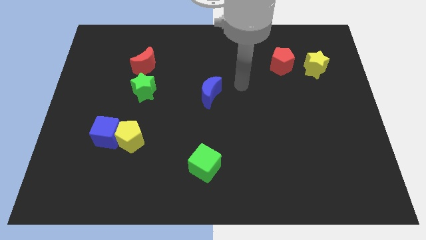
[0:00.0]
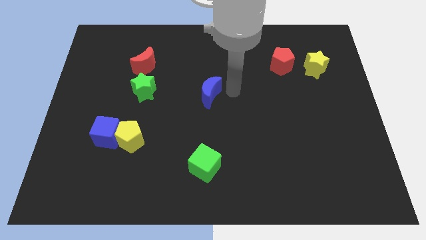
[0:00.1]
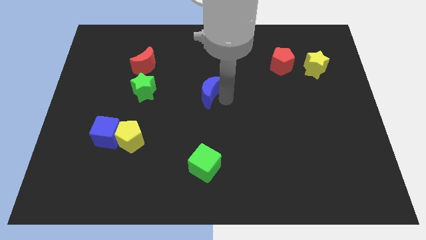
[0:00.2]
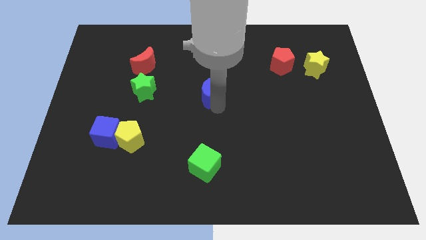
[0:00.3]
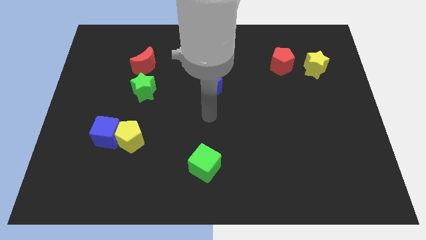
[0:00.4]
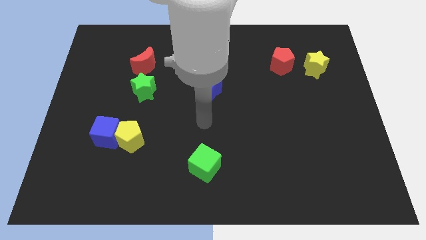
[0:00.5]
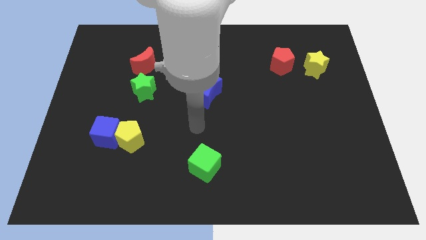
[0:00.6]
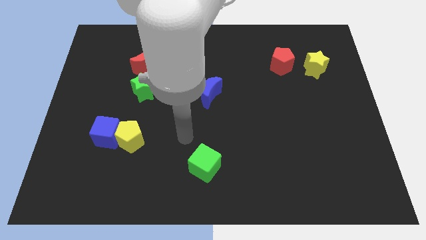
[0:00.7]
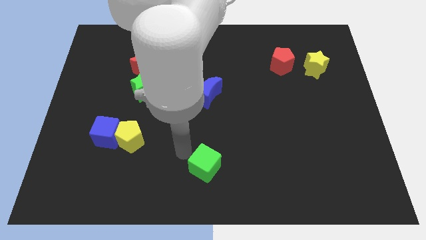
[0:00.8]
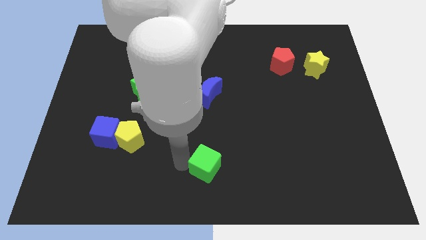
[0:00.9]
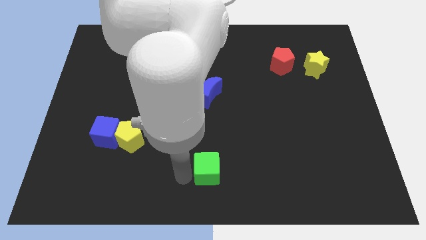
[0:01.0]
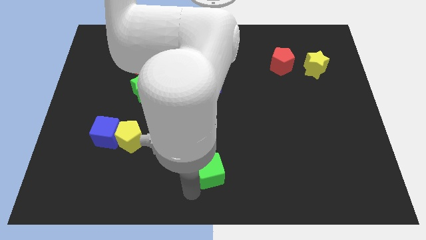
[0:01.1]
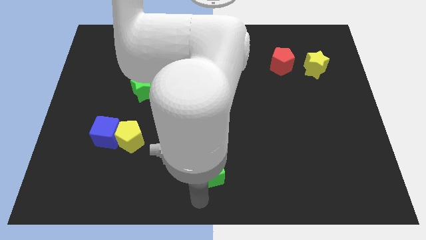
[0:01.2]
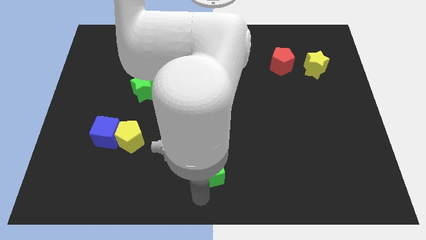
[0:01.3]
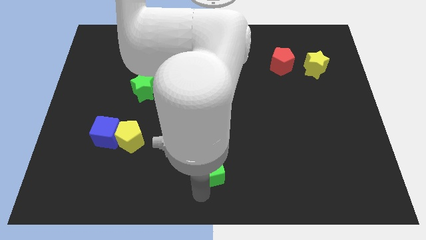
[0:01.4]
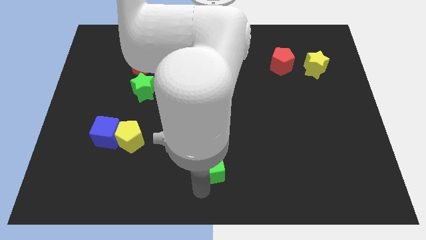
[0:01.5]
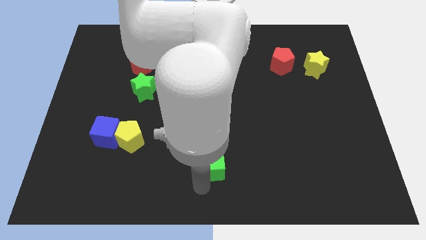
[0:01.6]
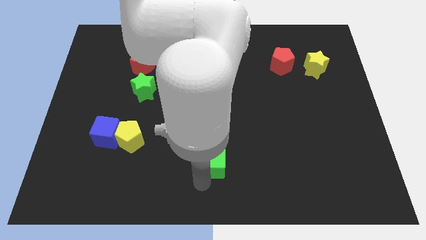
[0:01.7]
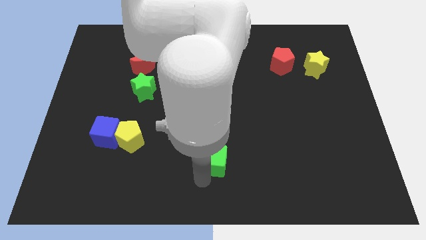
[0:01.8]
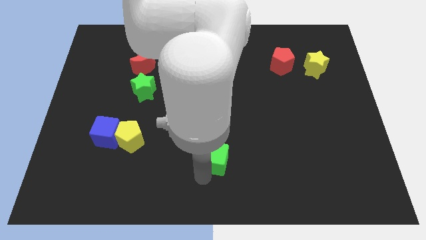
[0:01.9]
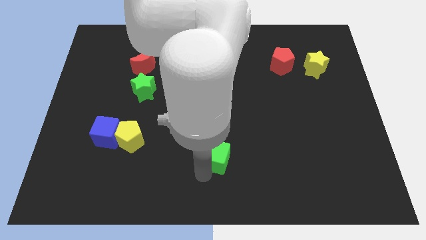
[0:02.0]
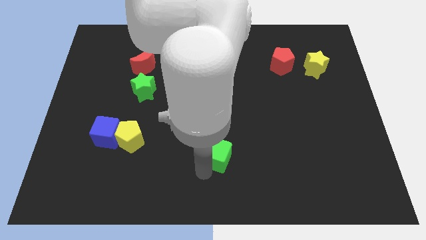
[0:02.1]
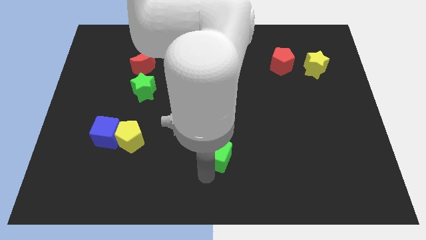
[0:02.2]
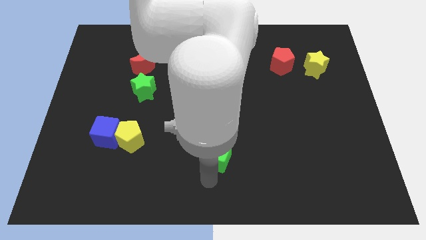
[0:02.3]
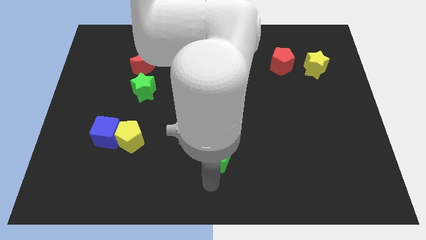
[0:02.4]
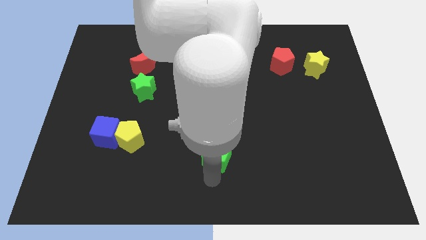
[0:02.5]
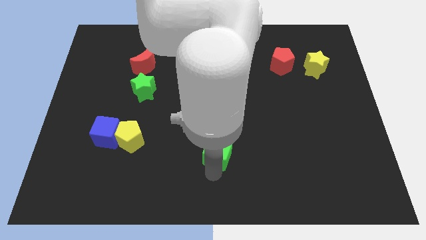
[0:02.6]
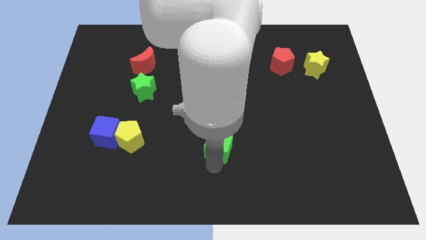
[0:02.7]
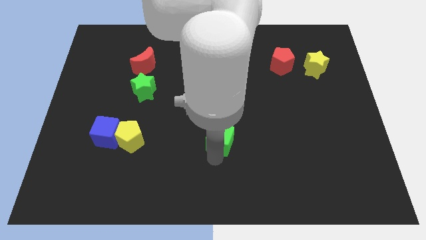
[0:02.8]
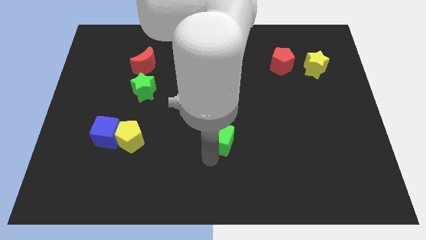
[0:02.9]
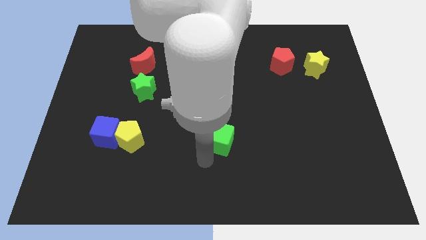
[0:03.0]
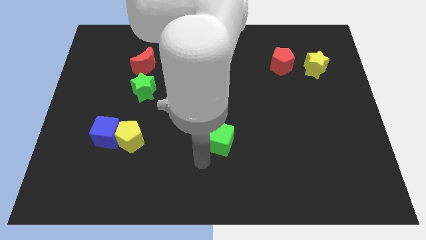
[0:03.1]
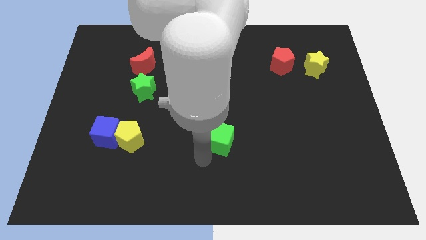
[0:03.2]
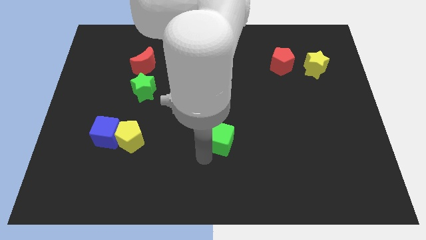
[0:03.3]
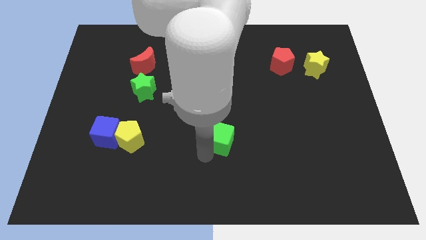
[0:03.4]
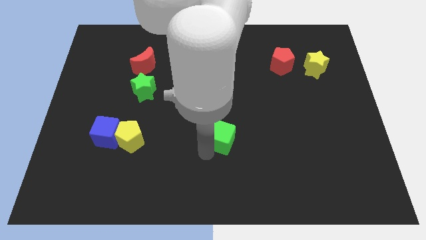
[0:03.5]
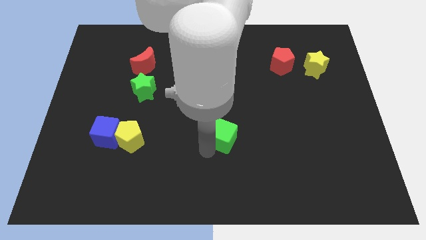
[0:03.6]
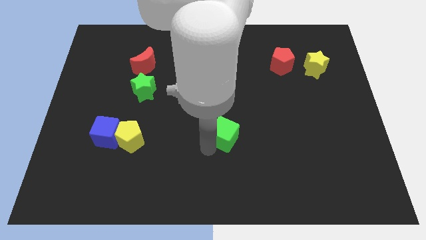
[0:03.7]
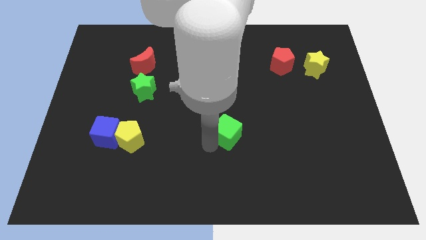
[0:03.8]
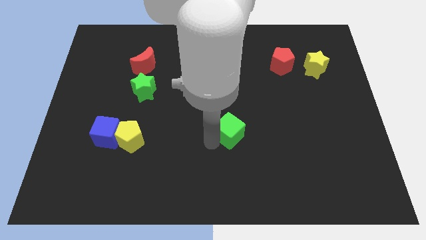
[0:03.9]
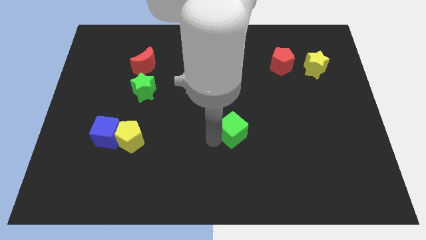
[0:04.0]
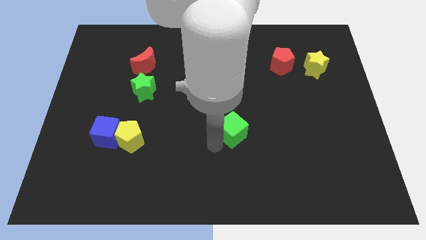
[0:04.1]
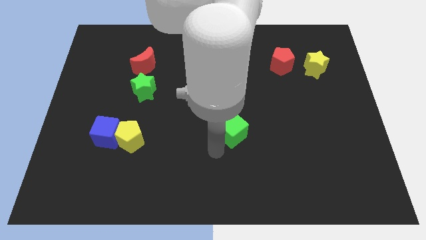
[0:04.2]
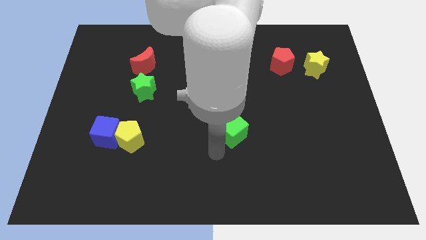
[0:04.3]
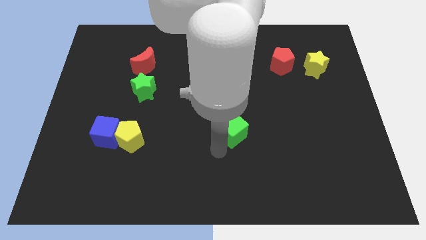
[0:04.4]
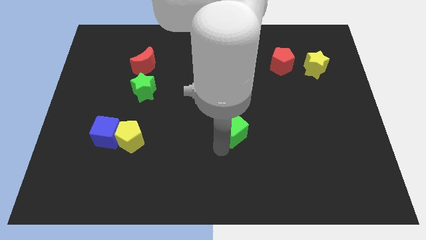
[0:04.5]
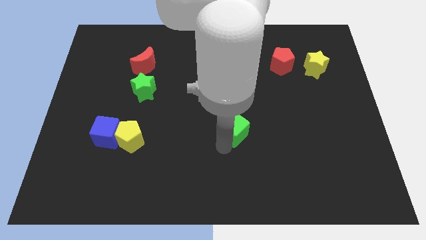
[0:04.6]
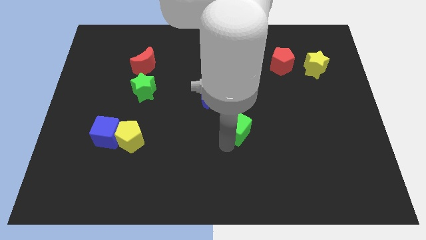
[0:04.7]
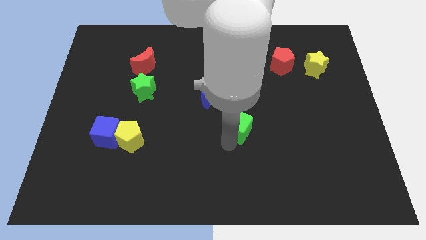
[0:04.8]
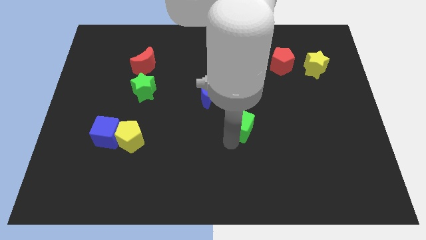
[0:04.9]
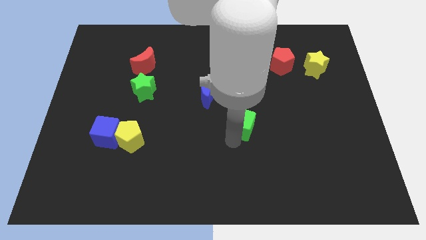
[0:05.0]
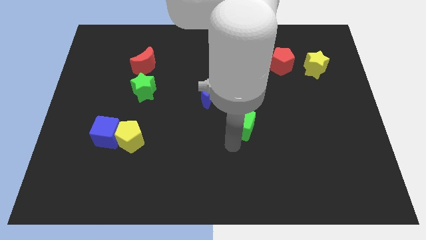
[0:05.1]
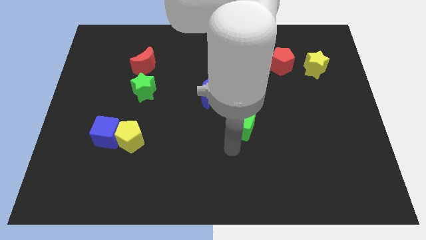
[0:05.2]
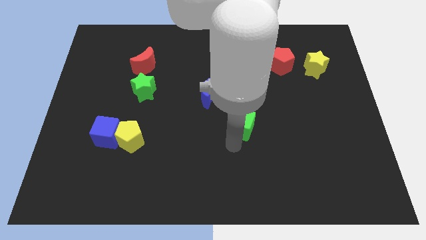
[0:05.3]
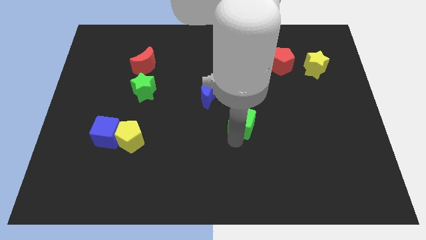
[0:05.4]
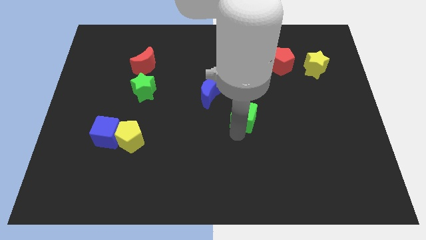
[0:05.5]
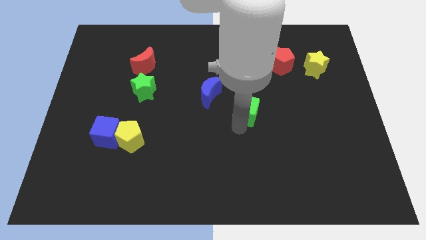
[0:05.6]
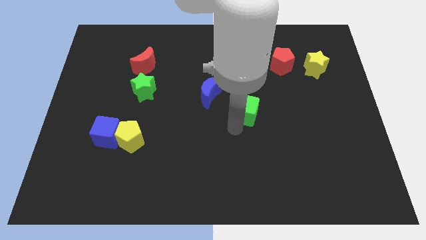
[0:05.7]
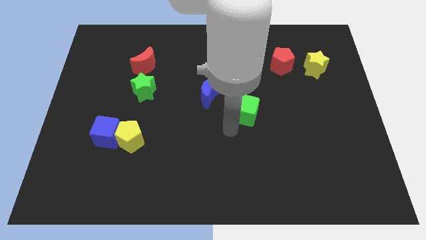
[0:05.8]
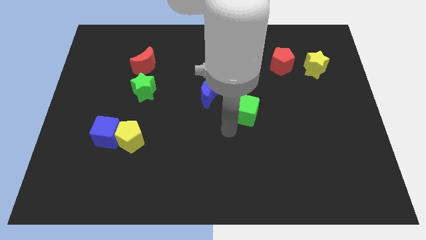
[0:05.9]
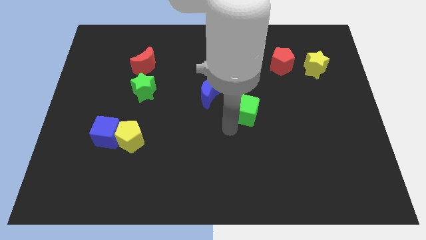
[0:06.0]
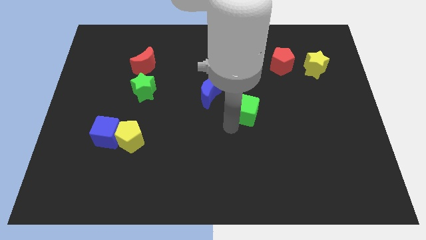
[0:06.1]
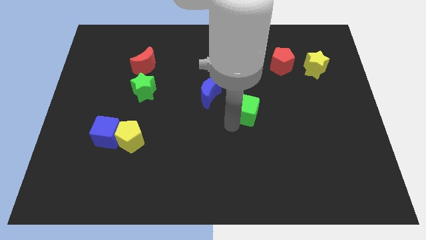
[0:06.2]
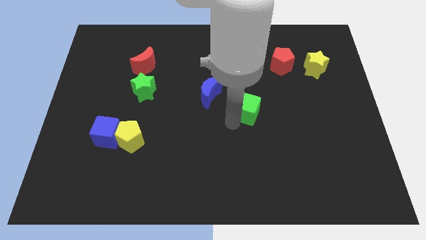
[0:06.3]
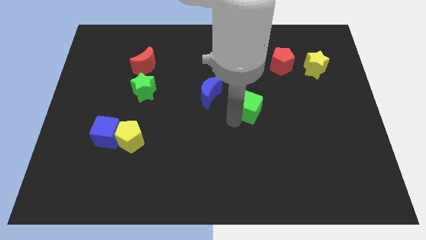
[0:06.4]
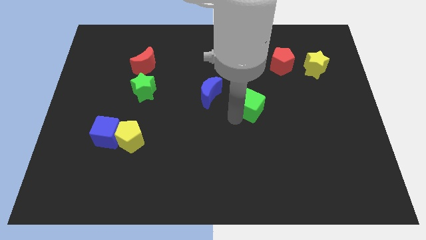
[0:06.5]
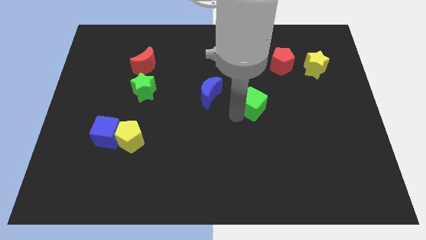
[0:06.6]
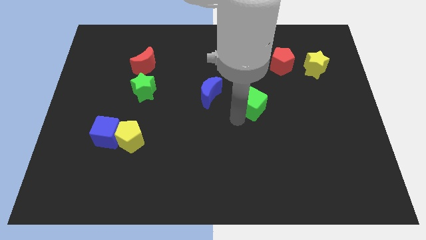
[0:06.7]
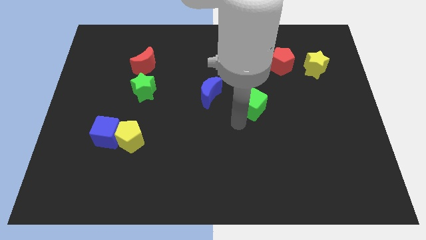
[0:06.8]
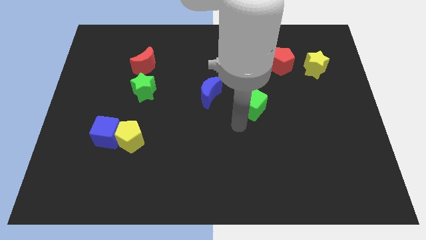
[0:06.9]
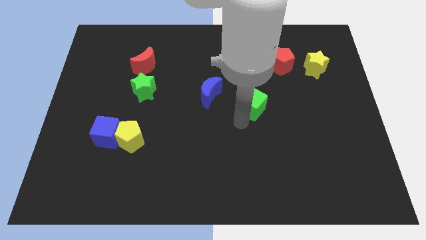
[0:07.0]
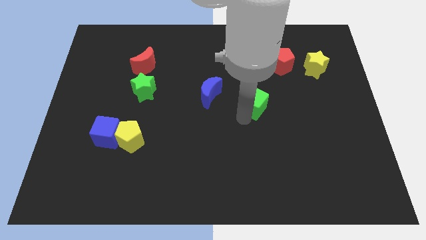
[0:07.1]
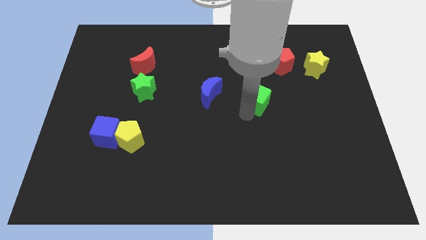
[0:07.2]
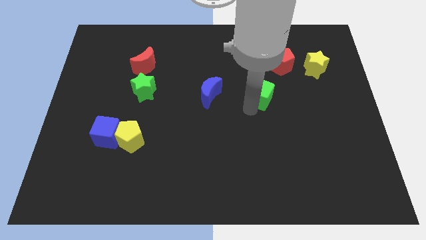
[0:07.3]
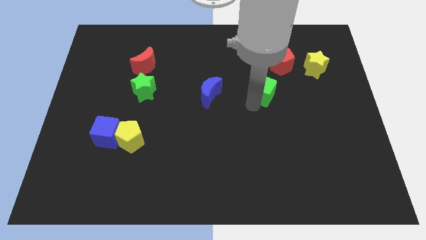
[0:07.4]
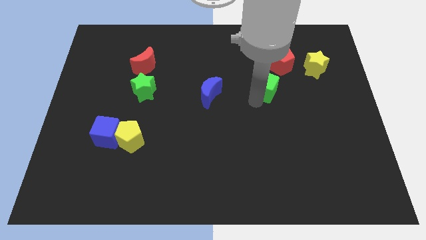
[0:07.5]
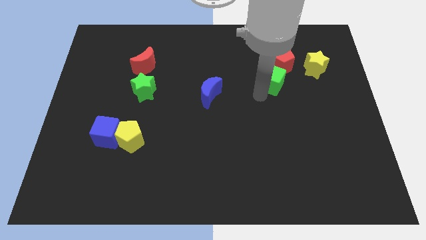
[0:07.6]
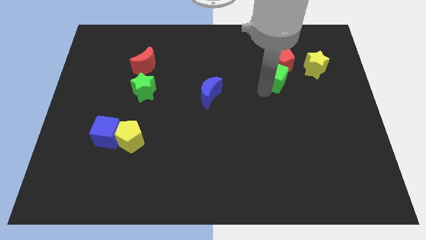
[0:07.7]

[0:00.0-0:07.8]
put the green cube next to the red pentagon
